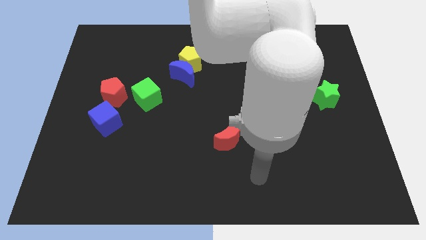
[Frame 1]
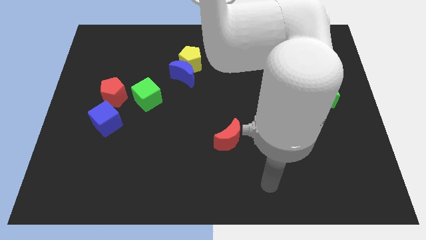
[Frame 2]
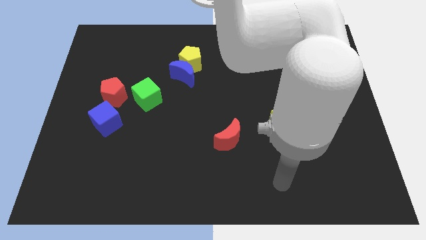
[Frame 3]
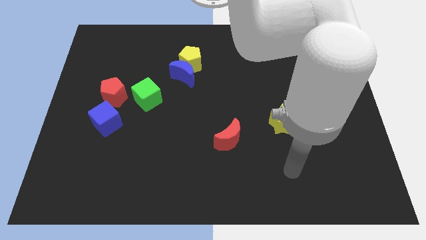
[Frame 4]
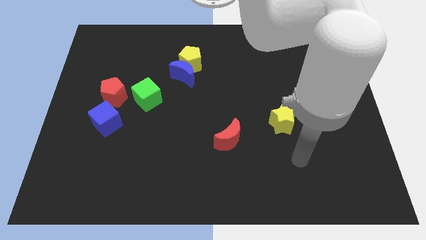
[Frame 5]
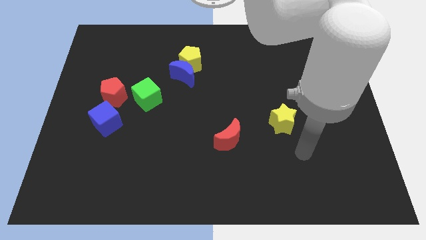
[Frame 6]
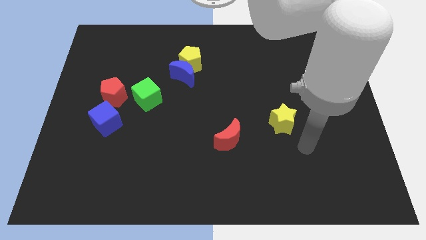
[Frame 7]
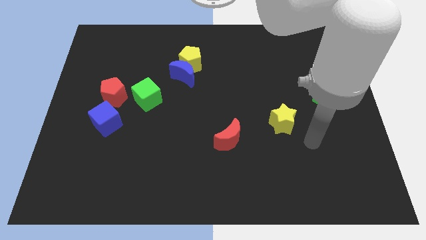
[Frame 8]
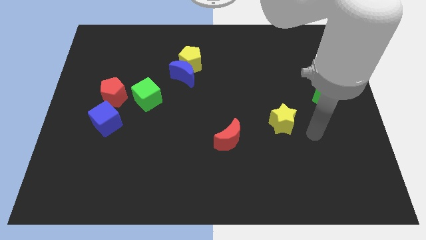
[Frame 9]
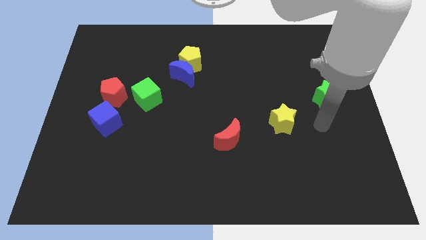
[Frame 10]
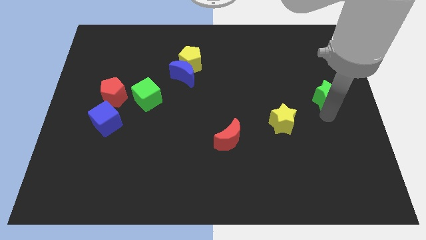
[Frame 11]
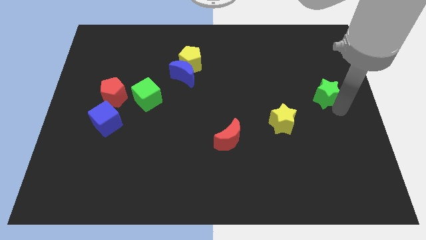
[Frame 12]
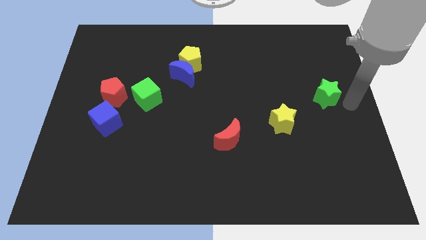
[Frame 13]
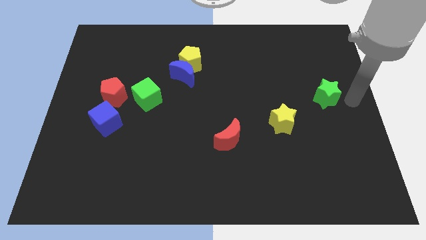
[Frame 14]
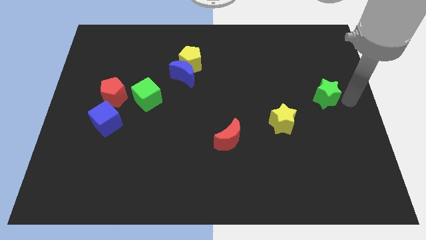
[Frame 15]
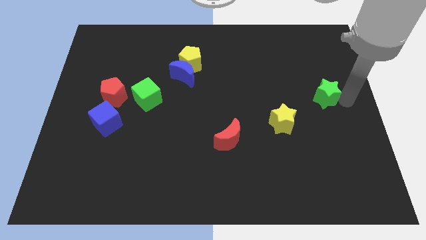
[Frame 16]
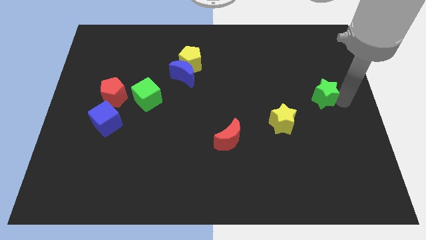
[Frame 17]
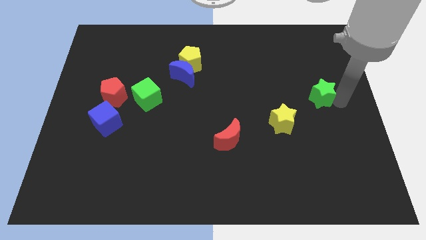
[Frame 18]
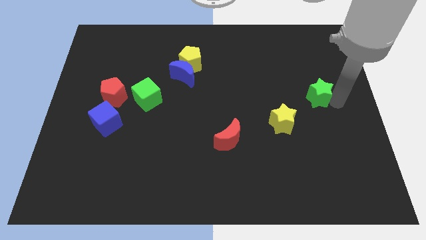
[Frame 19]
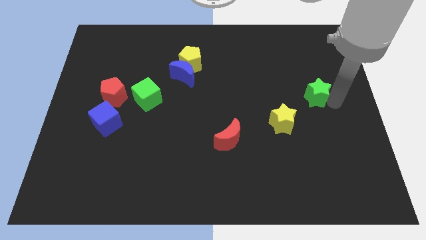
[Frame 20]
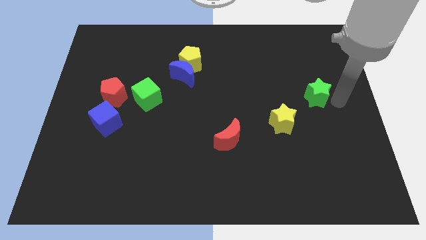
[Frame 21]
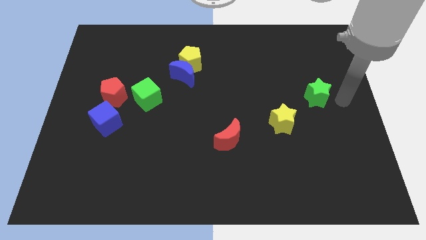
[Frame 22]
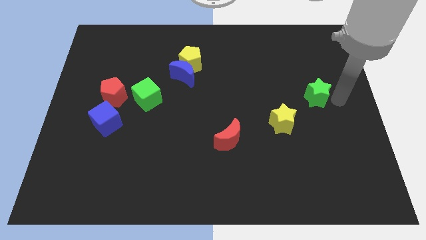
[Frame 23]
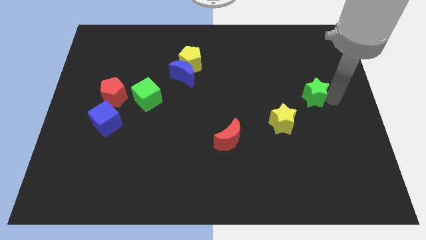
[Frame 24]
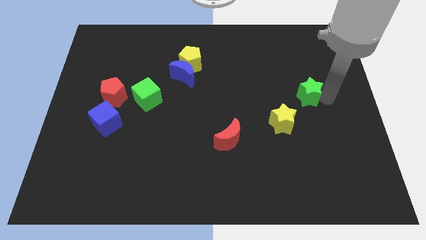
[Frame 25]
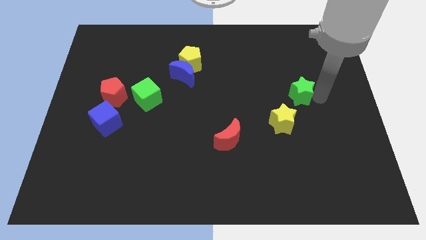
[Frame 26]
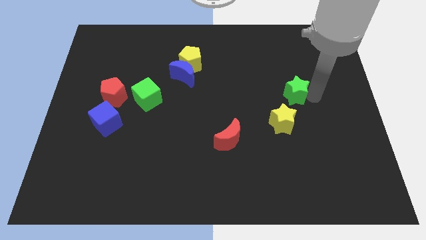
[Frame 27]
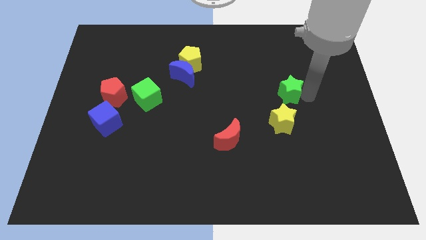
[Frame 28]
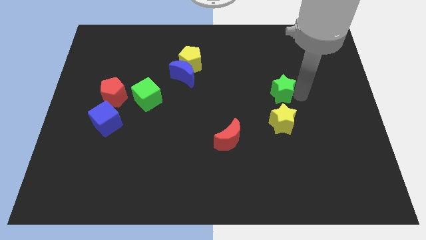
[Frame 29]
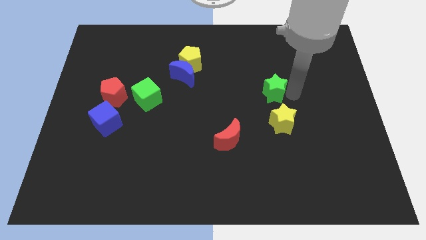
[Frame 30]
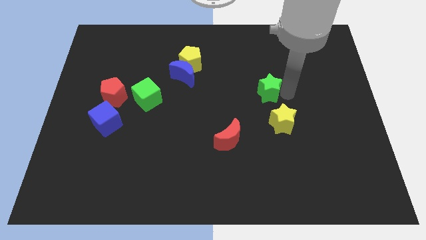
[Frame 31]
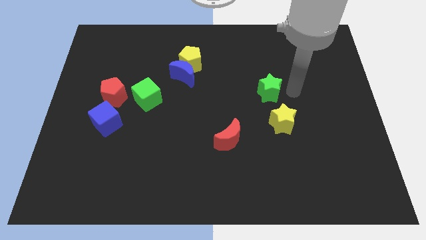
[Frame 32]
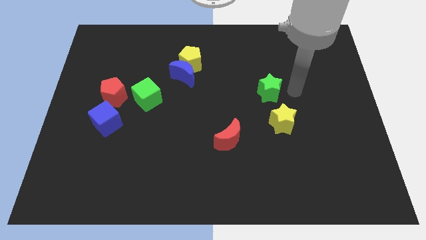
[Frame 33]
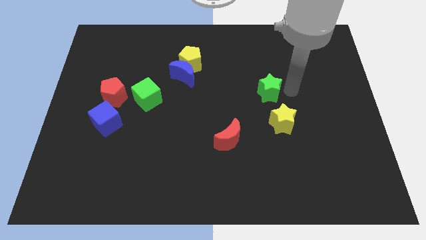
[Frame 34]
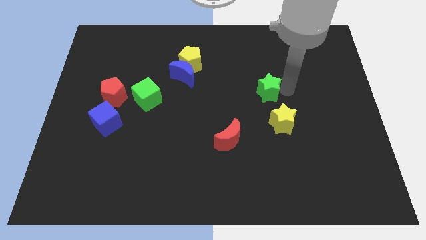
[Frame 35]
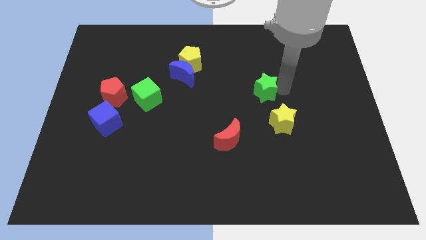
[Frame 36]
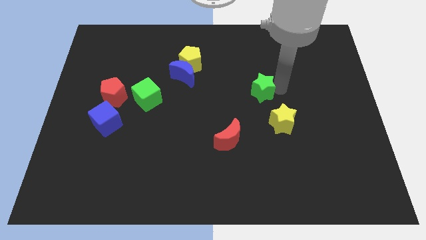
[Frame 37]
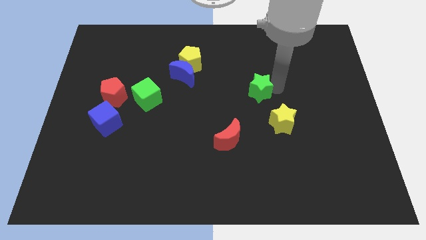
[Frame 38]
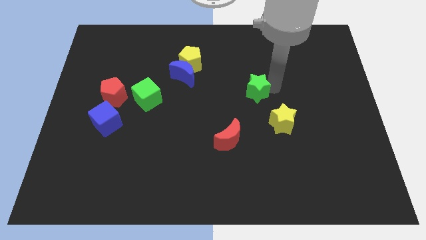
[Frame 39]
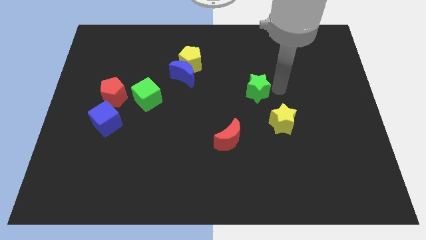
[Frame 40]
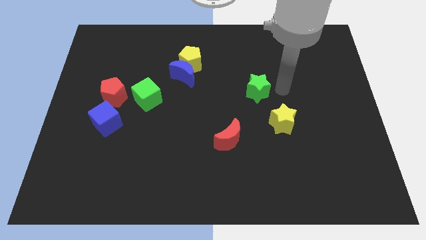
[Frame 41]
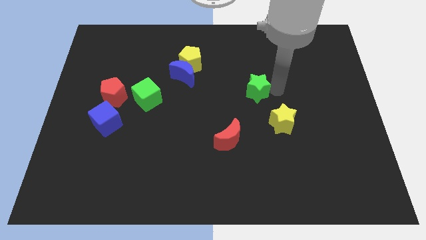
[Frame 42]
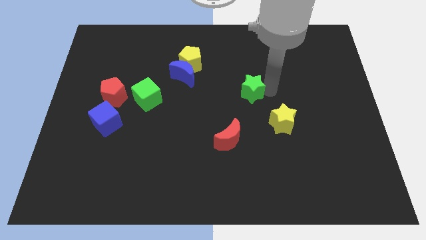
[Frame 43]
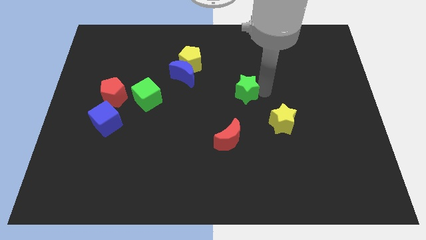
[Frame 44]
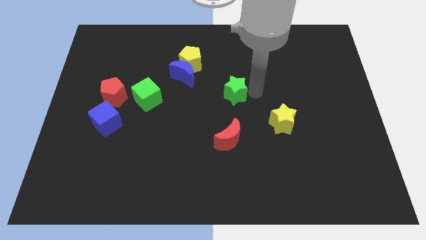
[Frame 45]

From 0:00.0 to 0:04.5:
push the green star left

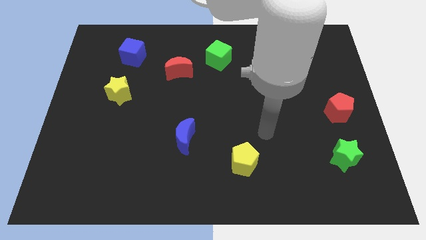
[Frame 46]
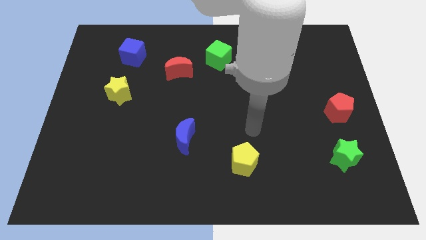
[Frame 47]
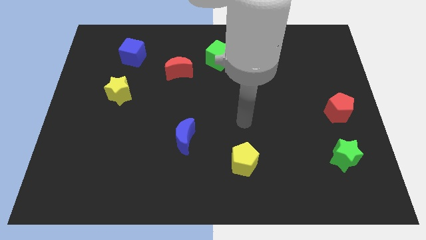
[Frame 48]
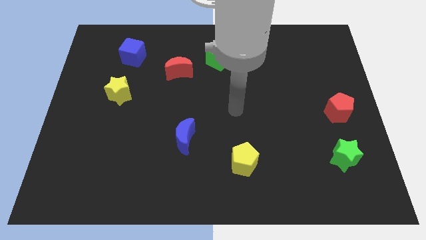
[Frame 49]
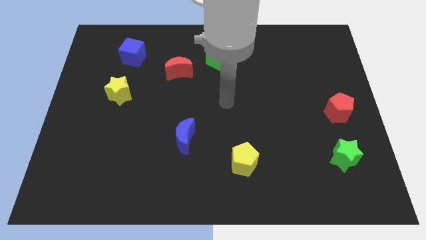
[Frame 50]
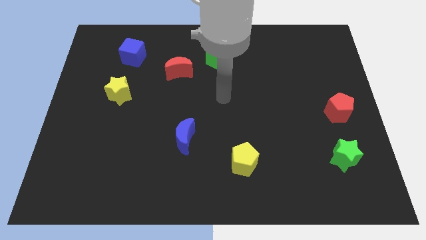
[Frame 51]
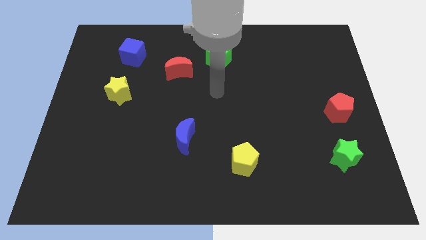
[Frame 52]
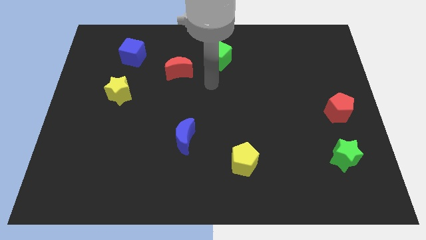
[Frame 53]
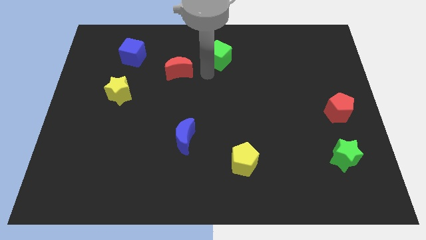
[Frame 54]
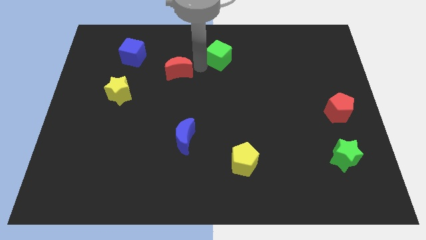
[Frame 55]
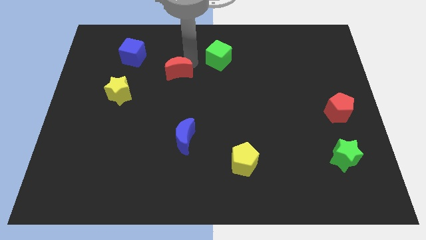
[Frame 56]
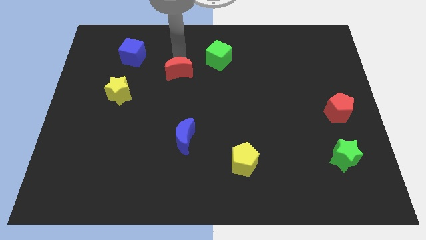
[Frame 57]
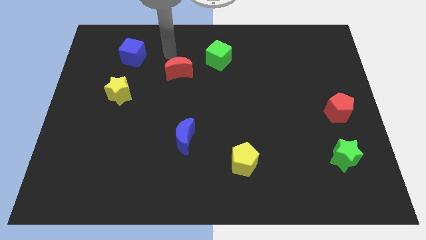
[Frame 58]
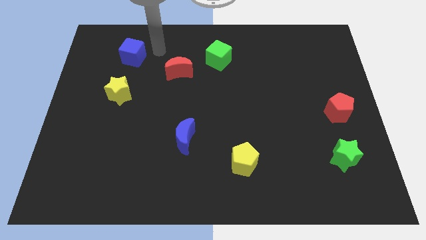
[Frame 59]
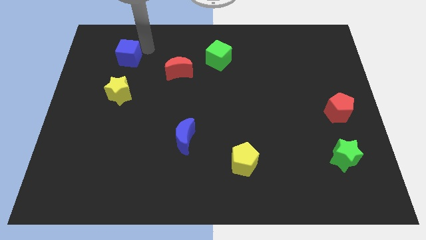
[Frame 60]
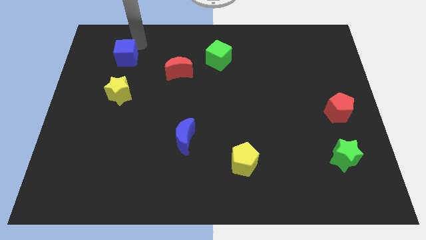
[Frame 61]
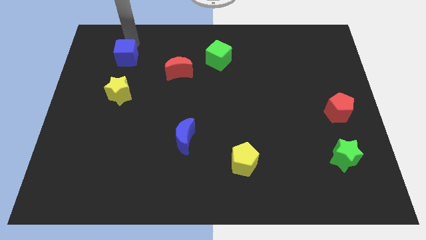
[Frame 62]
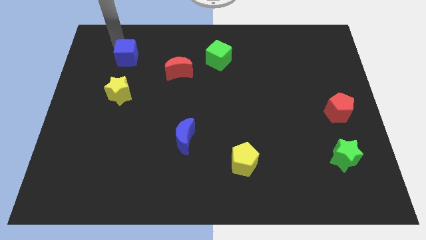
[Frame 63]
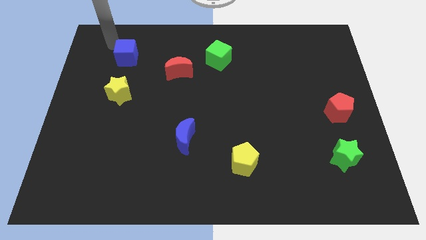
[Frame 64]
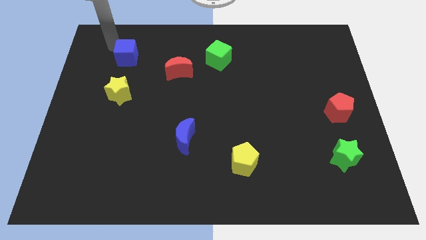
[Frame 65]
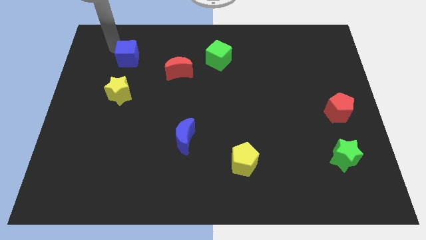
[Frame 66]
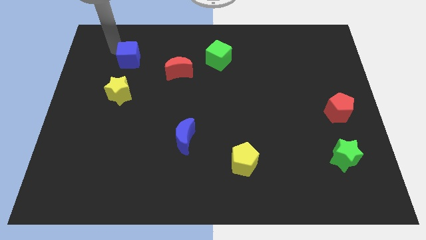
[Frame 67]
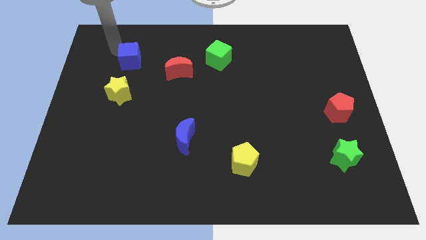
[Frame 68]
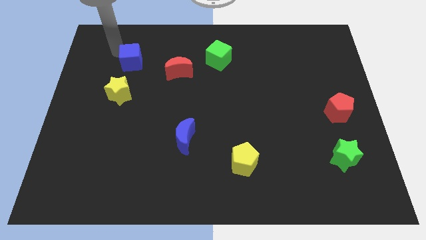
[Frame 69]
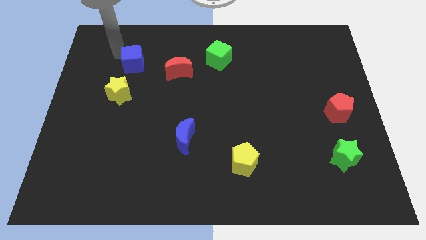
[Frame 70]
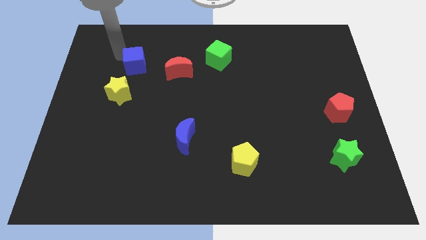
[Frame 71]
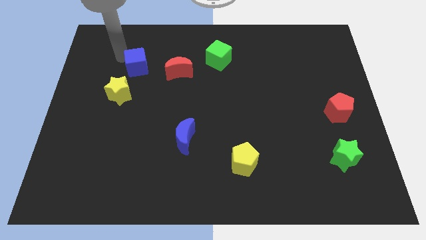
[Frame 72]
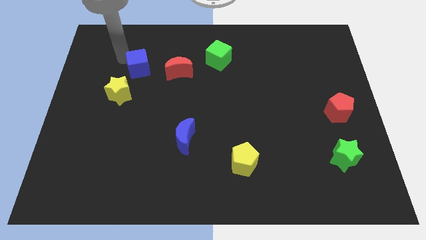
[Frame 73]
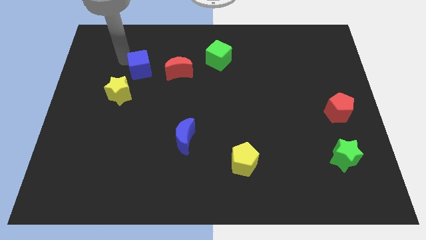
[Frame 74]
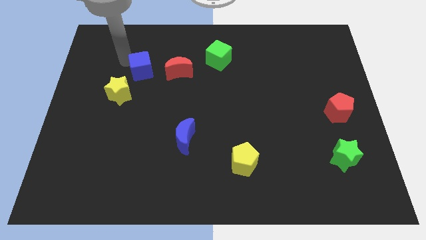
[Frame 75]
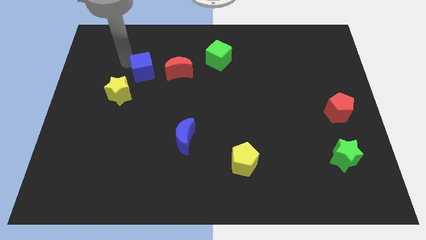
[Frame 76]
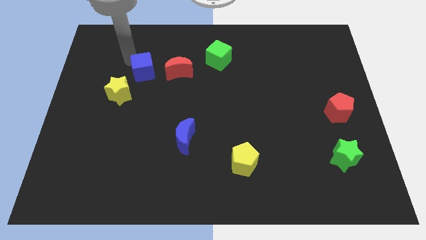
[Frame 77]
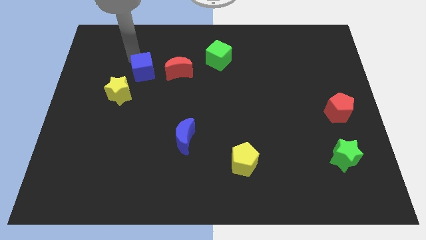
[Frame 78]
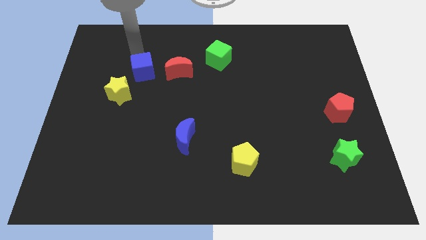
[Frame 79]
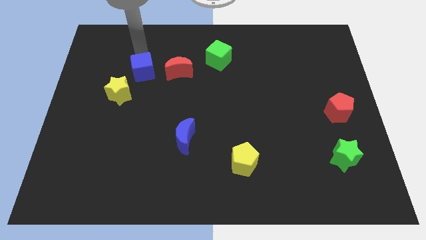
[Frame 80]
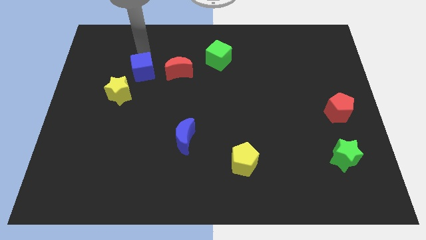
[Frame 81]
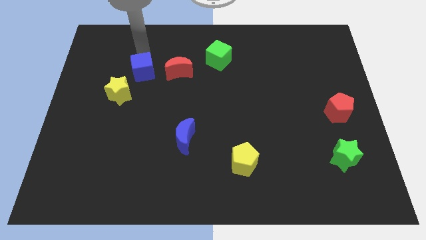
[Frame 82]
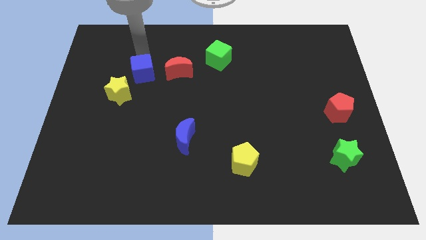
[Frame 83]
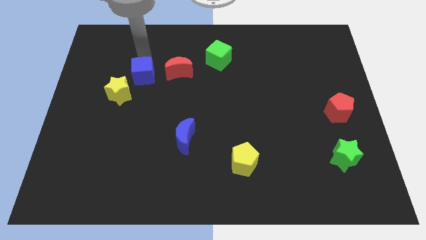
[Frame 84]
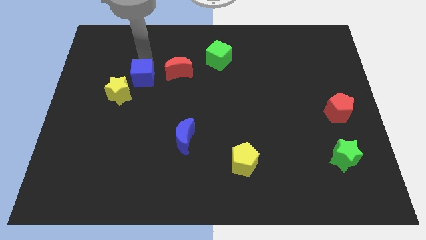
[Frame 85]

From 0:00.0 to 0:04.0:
slightly push the blue cube downwards
